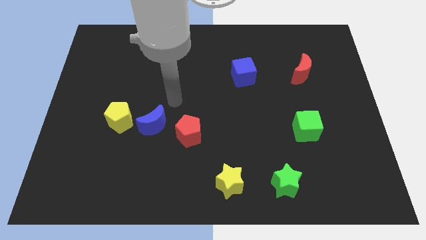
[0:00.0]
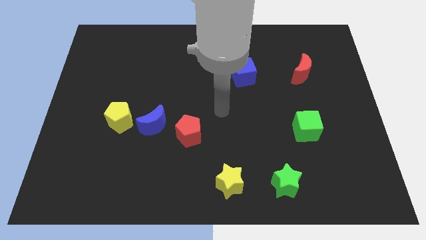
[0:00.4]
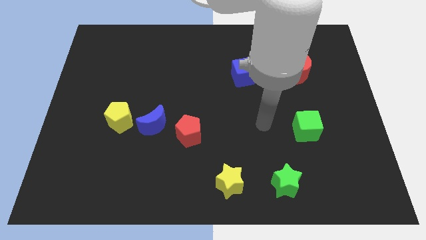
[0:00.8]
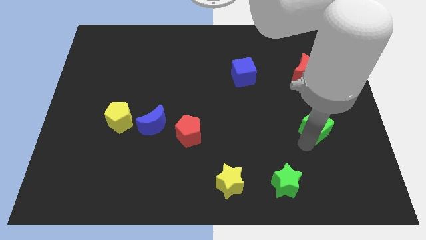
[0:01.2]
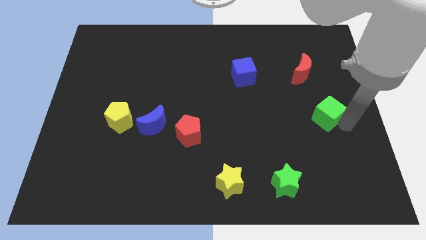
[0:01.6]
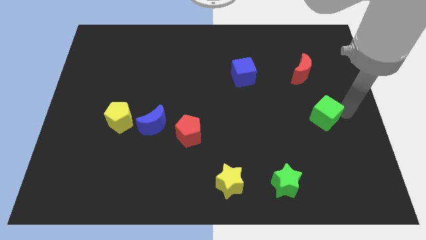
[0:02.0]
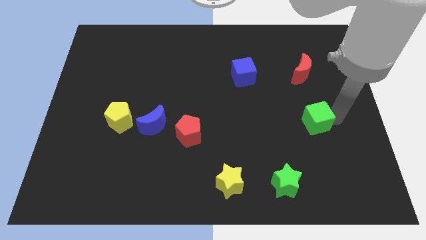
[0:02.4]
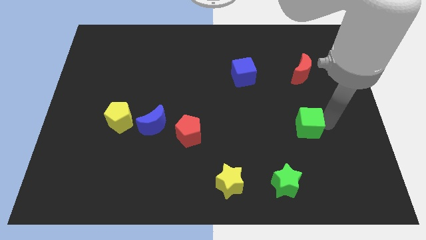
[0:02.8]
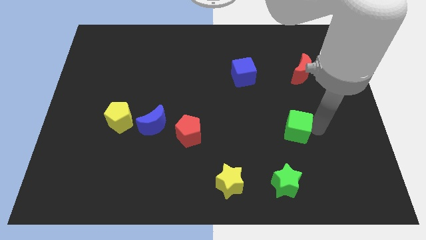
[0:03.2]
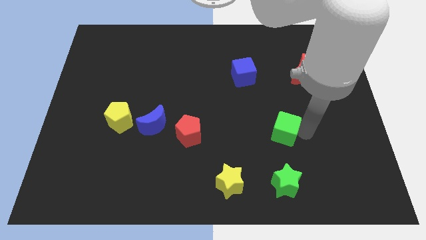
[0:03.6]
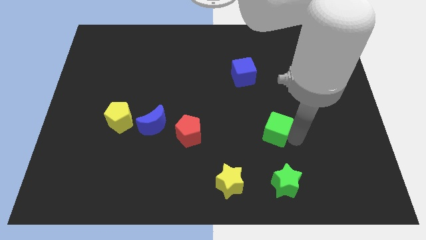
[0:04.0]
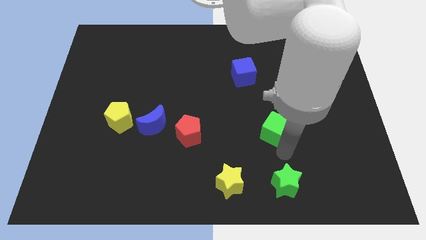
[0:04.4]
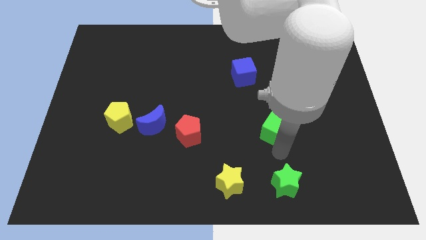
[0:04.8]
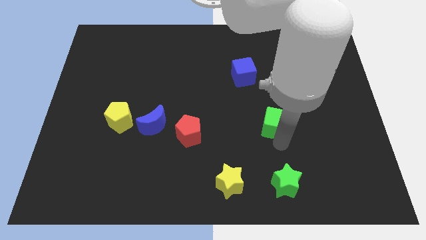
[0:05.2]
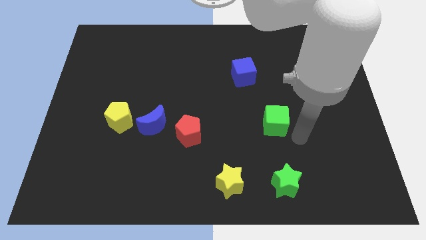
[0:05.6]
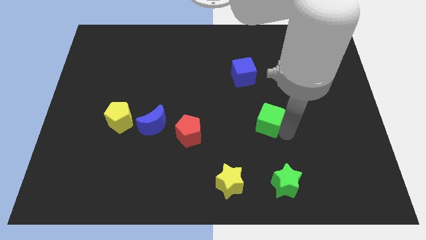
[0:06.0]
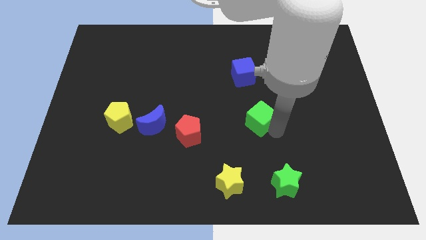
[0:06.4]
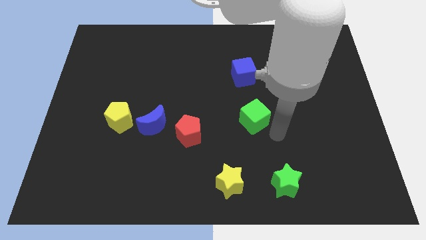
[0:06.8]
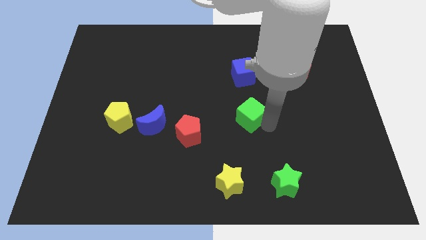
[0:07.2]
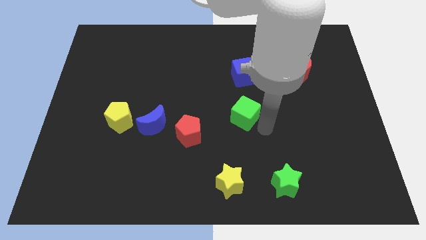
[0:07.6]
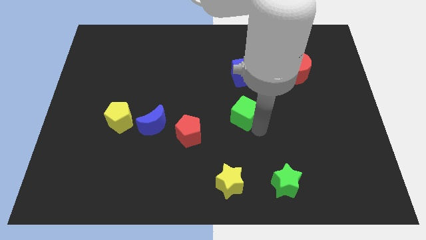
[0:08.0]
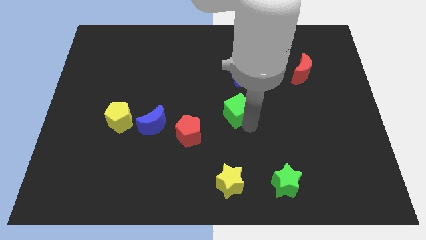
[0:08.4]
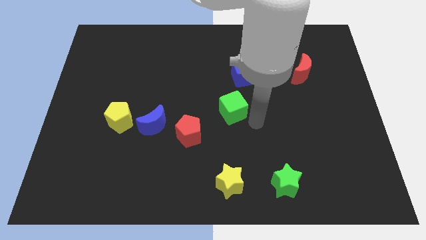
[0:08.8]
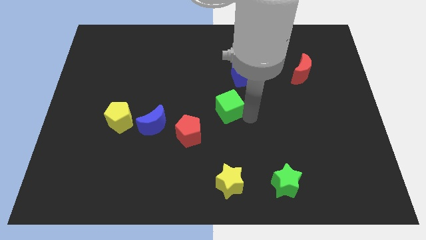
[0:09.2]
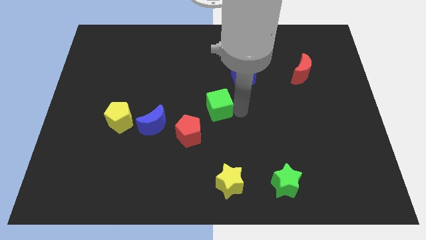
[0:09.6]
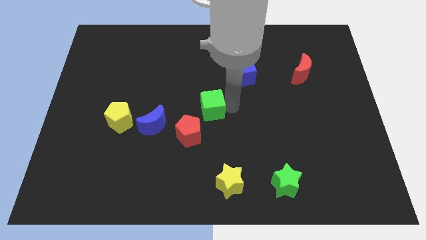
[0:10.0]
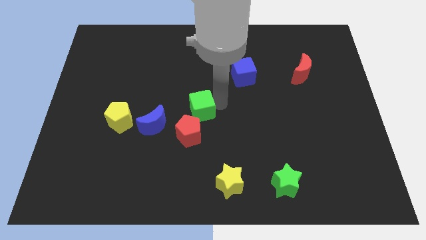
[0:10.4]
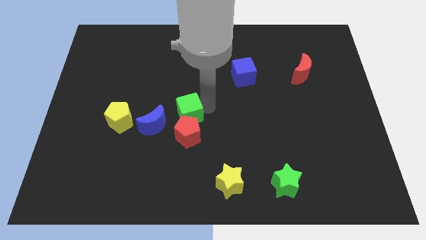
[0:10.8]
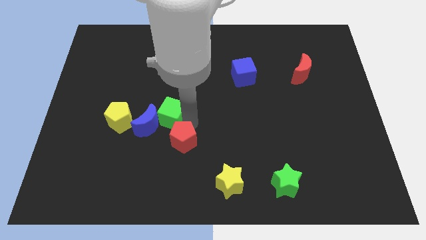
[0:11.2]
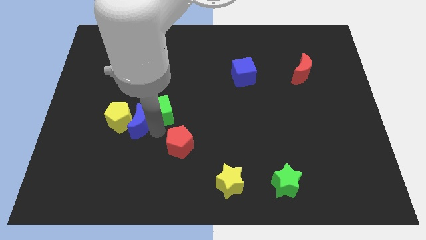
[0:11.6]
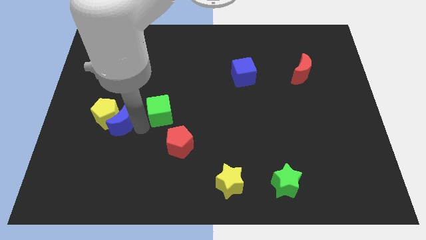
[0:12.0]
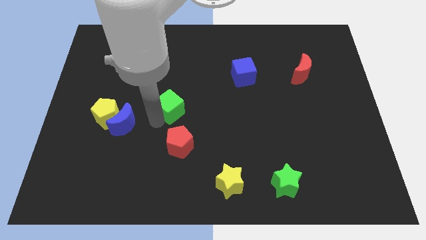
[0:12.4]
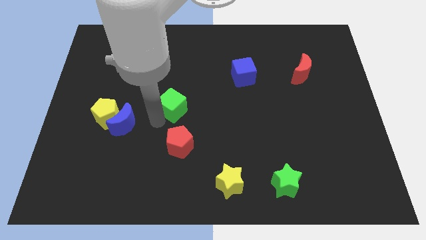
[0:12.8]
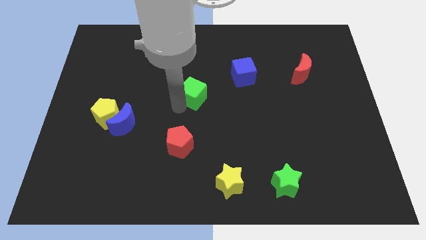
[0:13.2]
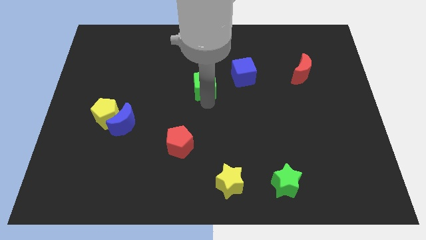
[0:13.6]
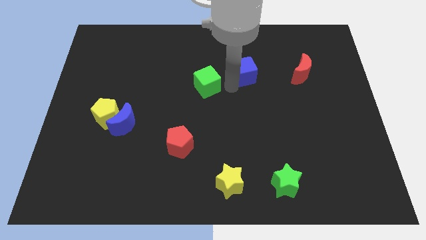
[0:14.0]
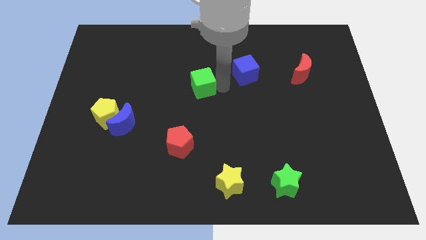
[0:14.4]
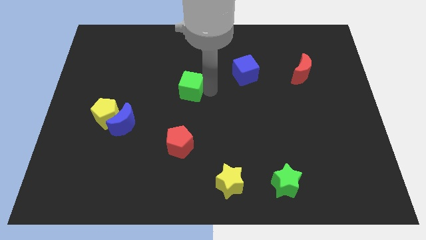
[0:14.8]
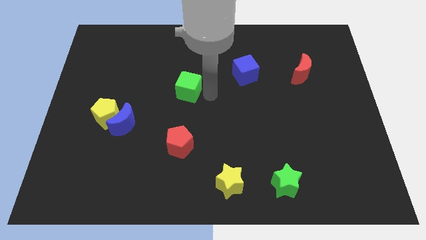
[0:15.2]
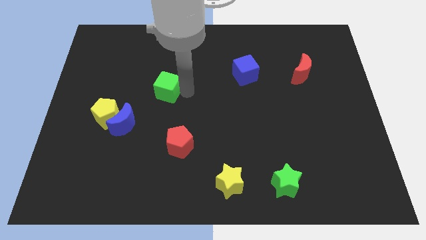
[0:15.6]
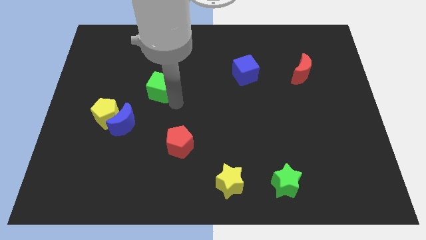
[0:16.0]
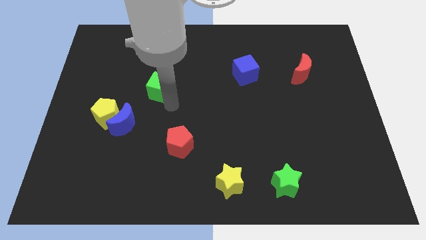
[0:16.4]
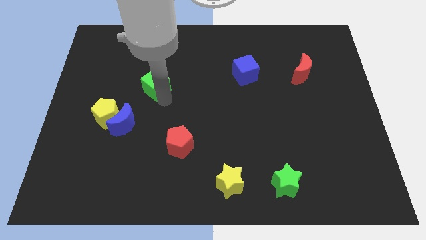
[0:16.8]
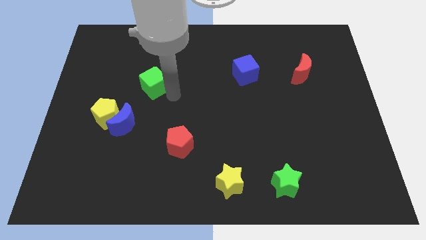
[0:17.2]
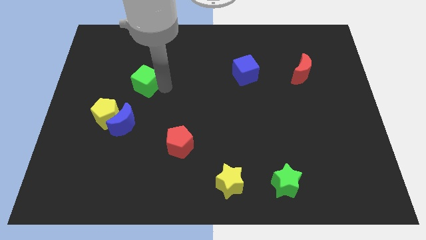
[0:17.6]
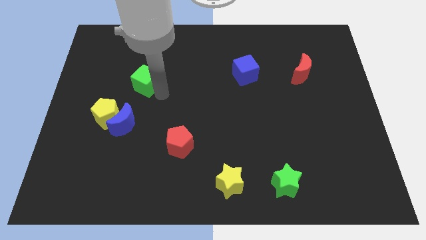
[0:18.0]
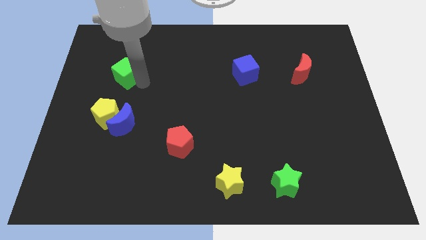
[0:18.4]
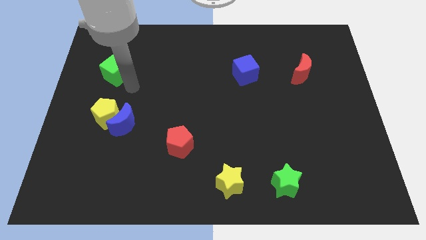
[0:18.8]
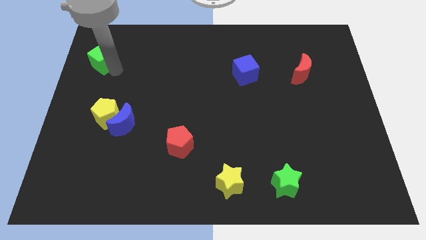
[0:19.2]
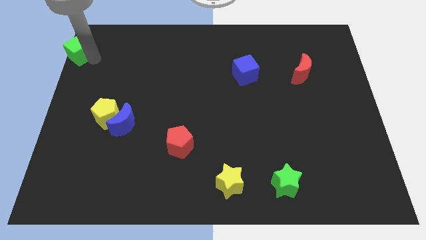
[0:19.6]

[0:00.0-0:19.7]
slide the green cube to the top left corner

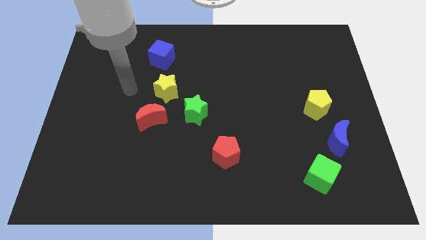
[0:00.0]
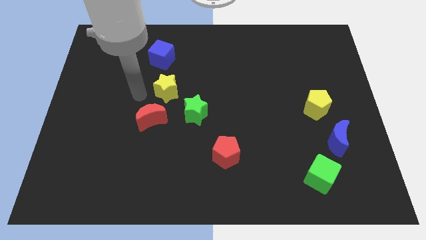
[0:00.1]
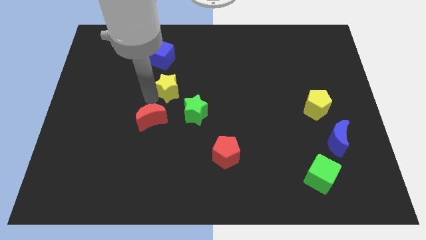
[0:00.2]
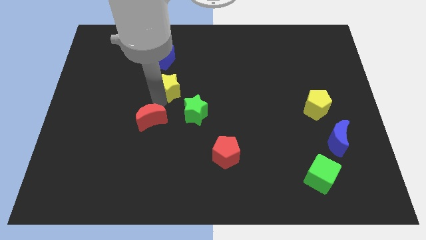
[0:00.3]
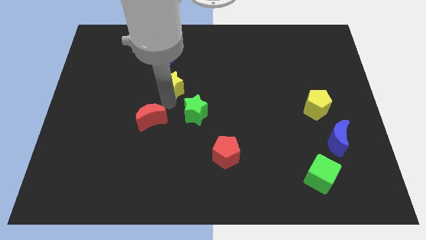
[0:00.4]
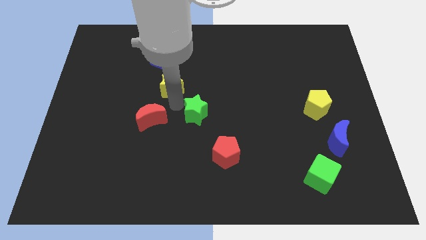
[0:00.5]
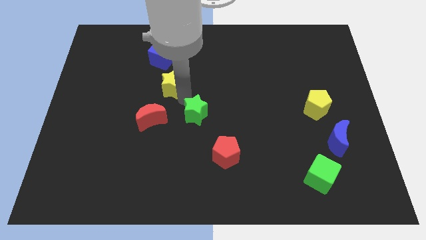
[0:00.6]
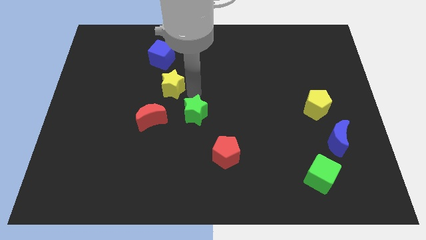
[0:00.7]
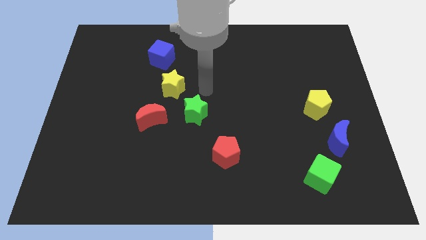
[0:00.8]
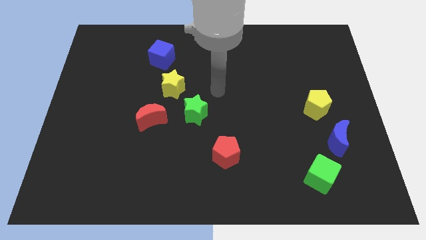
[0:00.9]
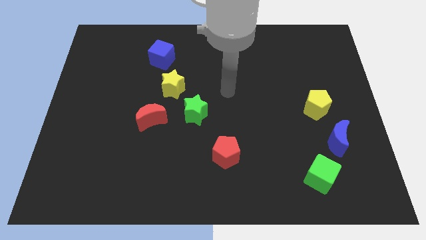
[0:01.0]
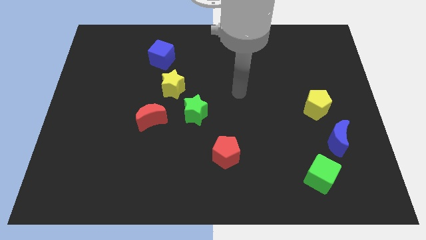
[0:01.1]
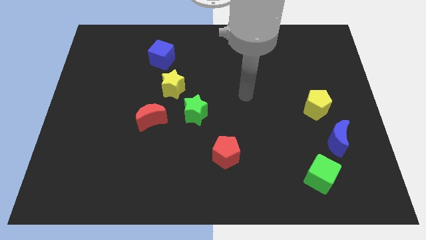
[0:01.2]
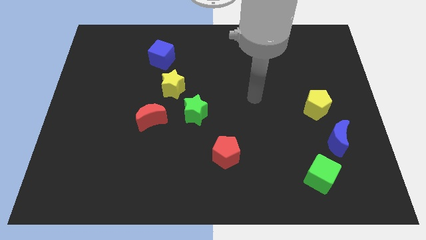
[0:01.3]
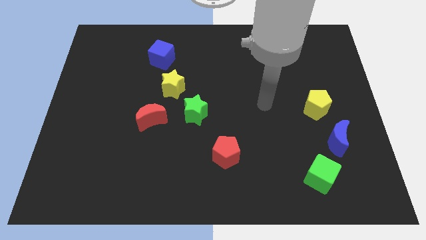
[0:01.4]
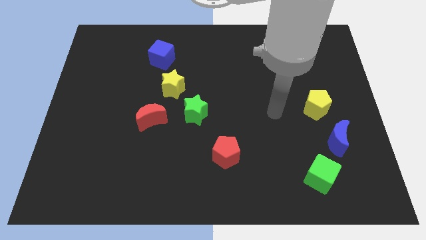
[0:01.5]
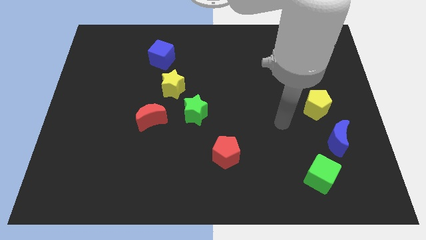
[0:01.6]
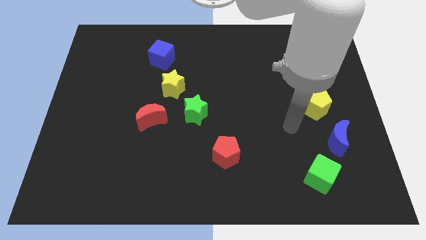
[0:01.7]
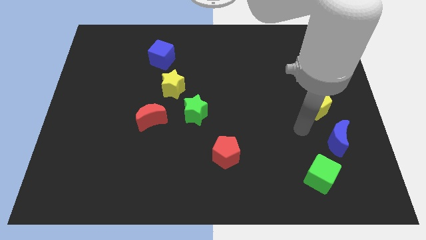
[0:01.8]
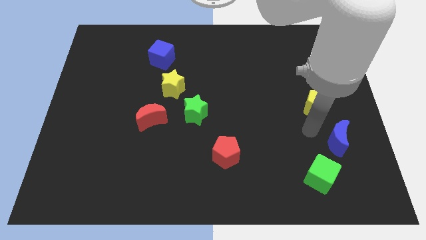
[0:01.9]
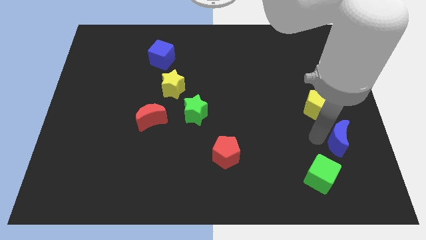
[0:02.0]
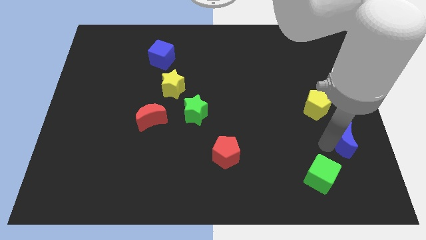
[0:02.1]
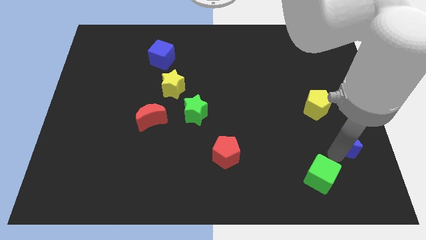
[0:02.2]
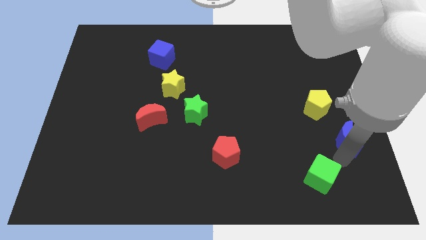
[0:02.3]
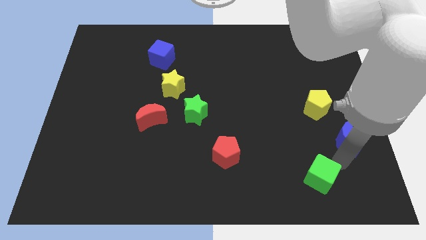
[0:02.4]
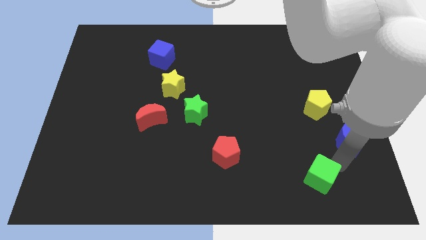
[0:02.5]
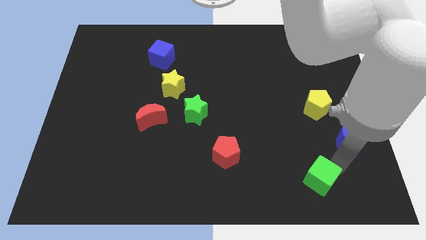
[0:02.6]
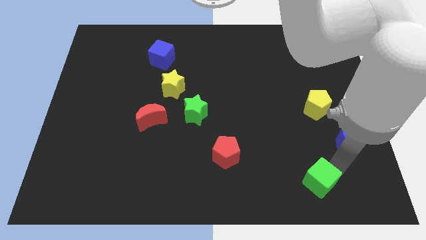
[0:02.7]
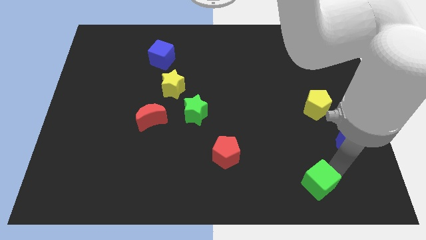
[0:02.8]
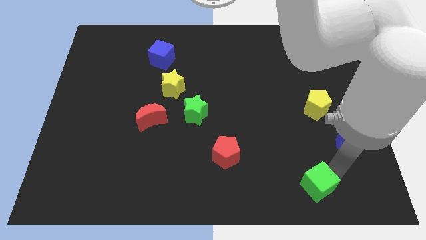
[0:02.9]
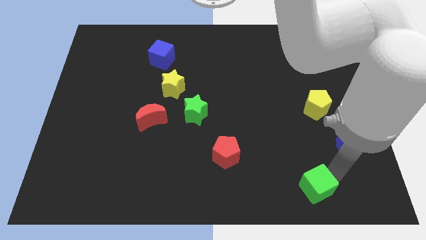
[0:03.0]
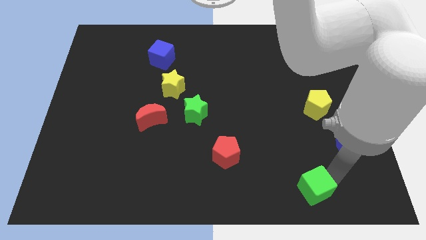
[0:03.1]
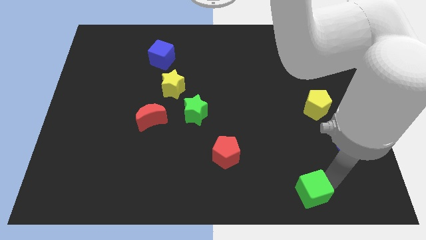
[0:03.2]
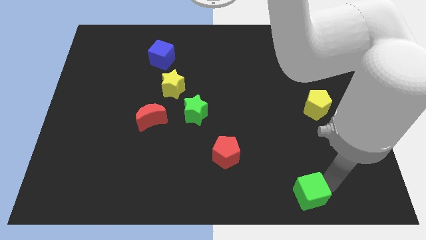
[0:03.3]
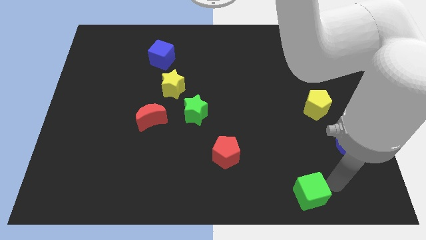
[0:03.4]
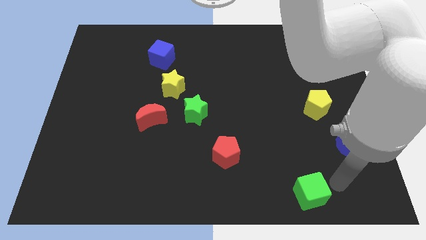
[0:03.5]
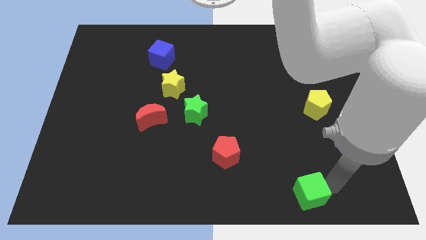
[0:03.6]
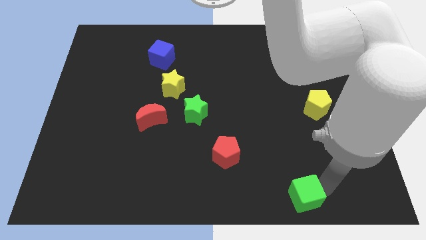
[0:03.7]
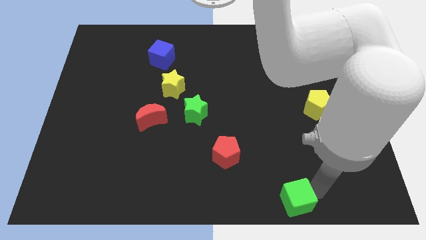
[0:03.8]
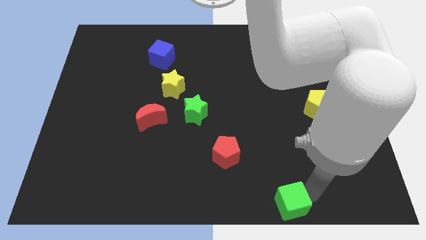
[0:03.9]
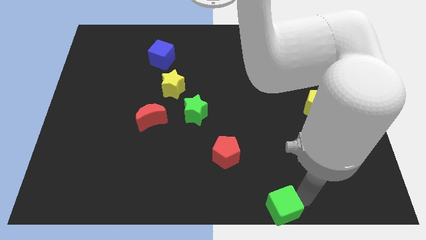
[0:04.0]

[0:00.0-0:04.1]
put the green cube to the bottom
